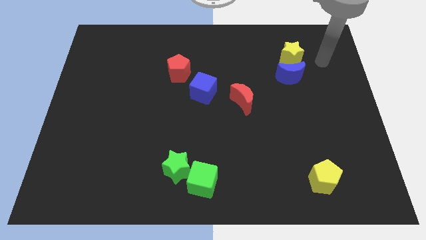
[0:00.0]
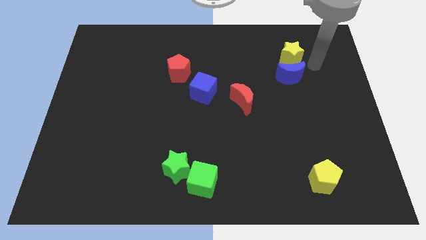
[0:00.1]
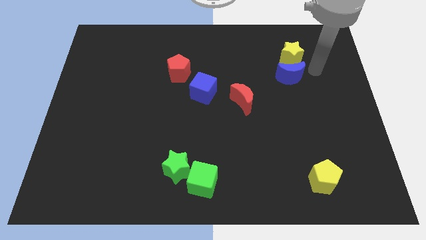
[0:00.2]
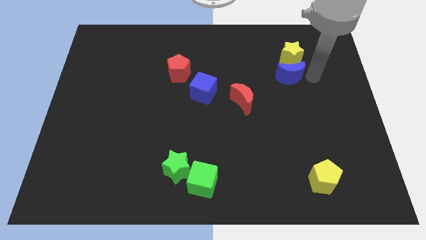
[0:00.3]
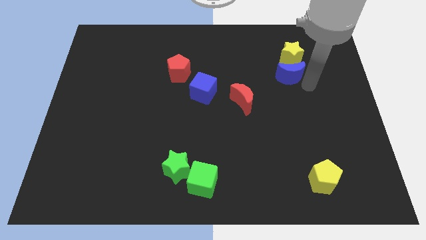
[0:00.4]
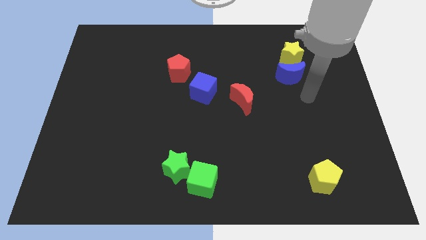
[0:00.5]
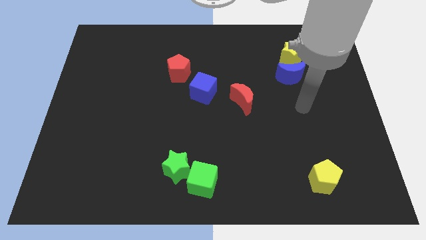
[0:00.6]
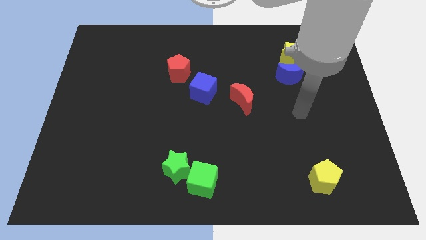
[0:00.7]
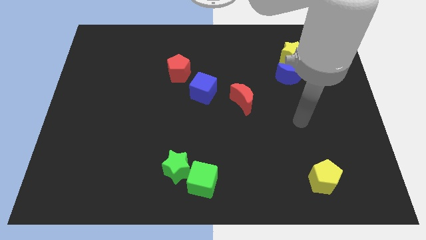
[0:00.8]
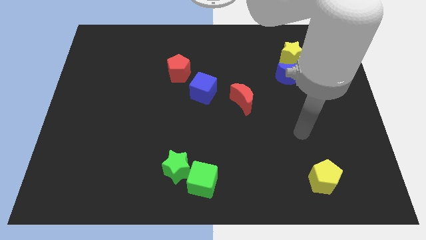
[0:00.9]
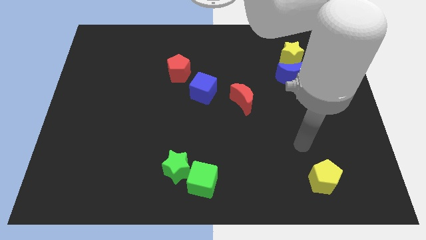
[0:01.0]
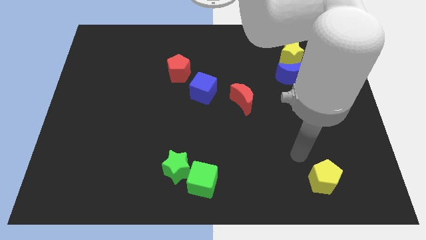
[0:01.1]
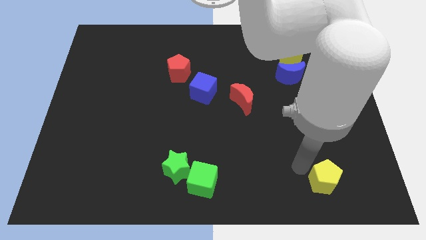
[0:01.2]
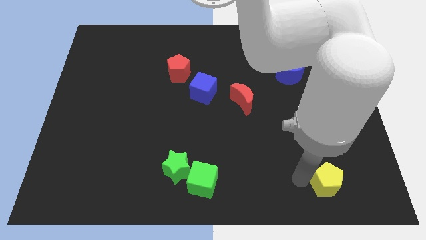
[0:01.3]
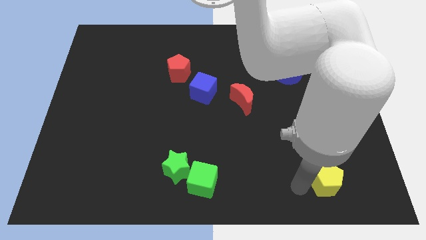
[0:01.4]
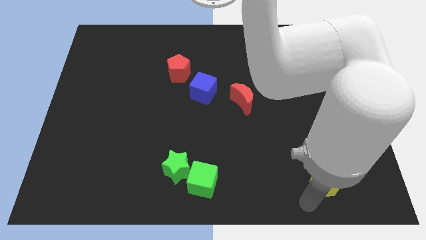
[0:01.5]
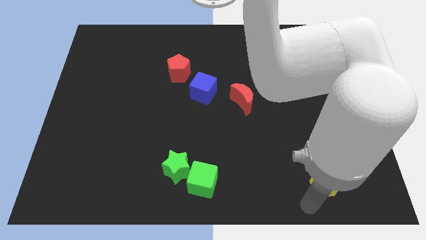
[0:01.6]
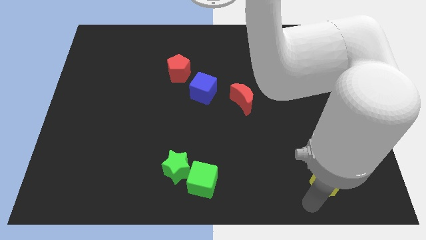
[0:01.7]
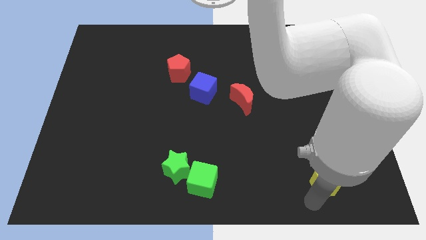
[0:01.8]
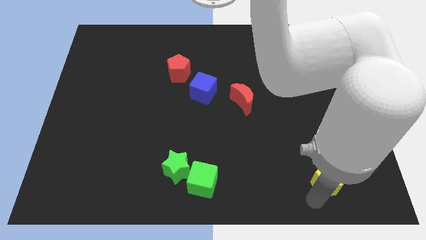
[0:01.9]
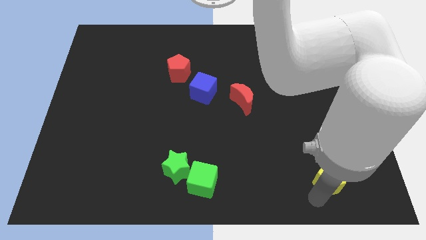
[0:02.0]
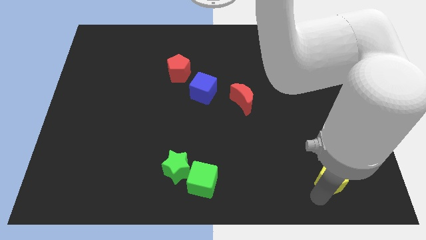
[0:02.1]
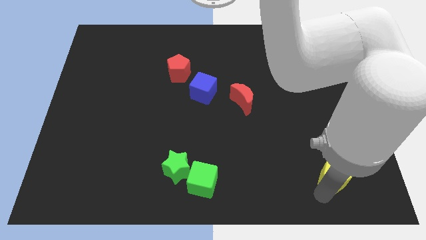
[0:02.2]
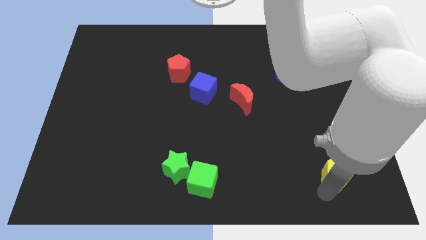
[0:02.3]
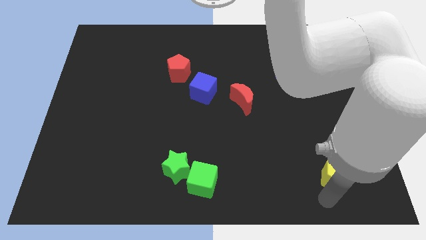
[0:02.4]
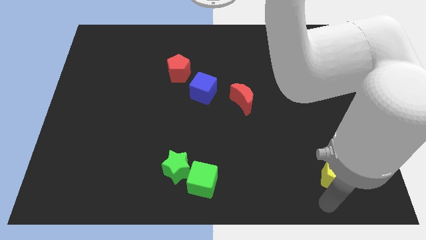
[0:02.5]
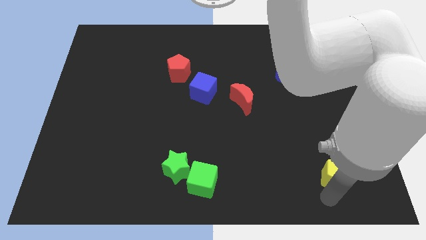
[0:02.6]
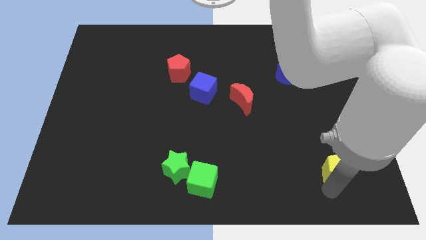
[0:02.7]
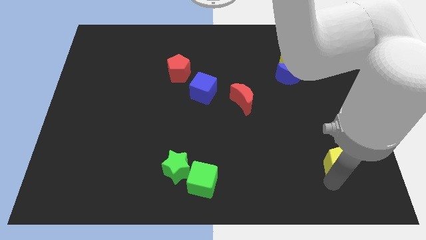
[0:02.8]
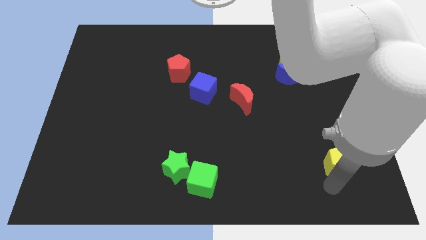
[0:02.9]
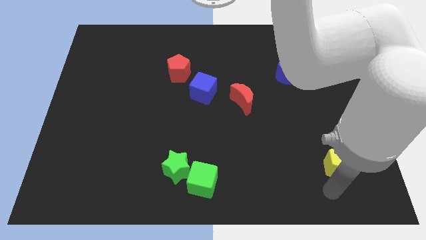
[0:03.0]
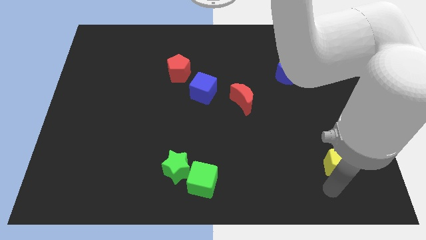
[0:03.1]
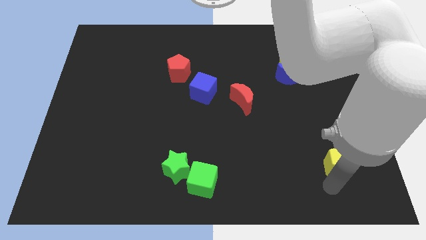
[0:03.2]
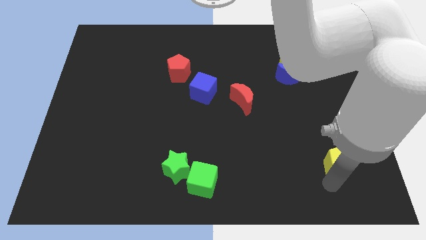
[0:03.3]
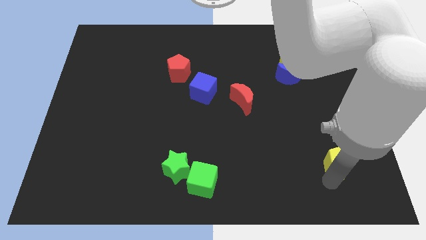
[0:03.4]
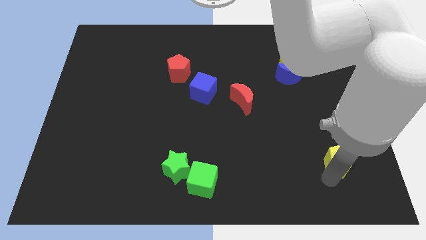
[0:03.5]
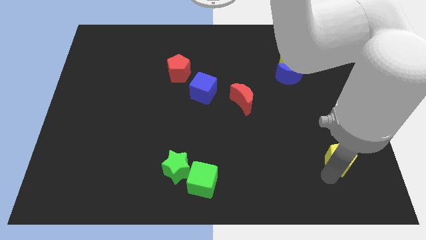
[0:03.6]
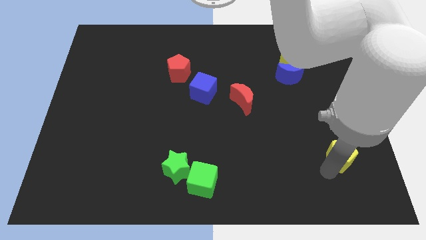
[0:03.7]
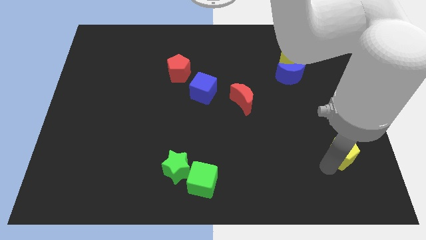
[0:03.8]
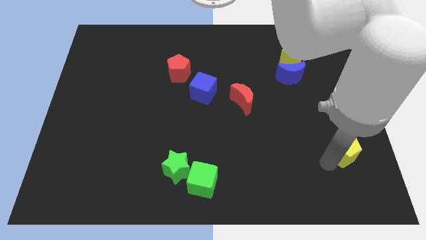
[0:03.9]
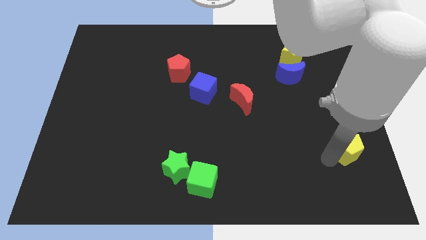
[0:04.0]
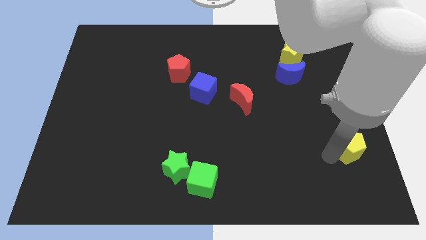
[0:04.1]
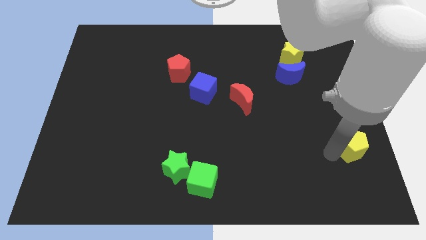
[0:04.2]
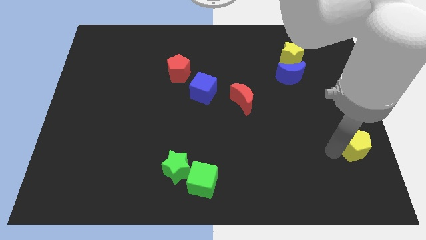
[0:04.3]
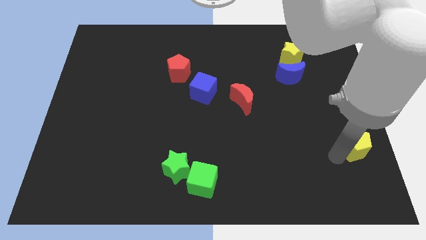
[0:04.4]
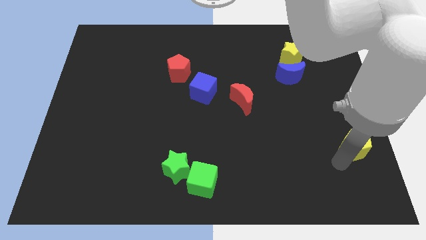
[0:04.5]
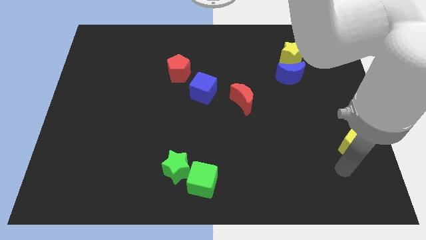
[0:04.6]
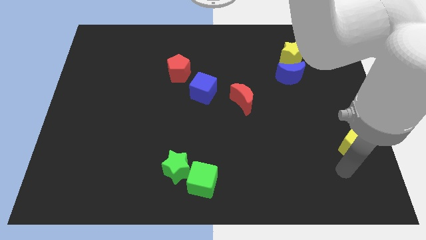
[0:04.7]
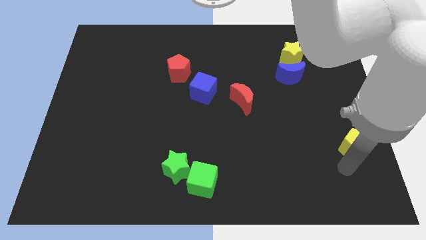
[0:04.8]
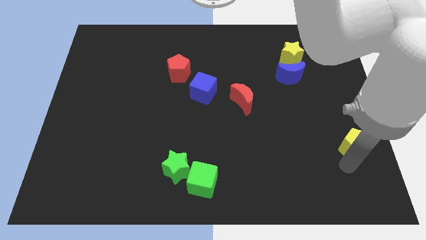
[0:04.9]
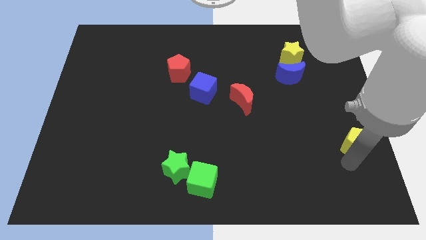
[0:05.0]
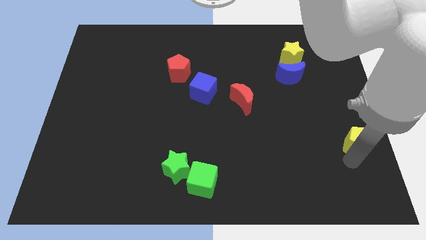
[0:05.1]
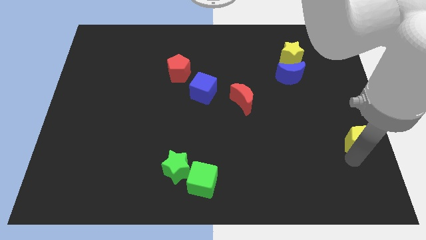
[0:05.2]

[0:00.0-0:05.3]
push the yellow pentagon to the right side of the board

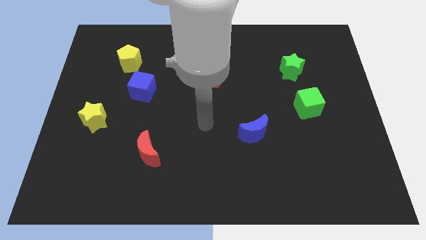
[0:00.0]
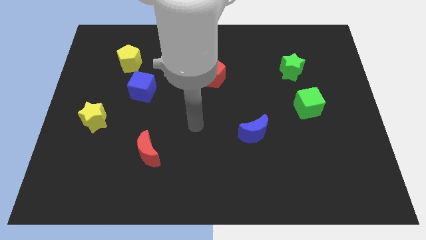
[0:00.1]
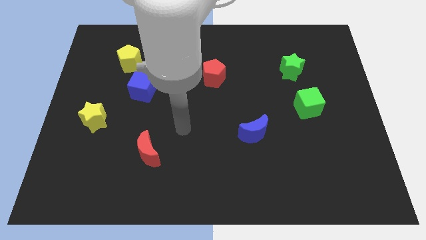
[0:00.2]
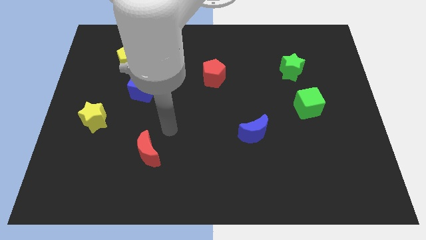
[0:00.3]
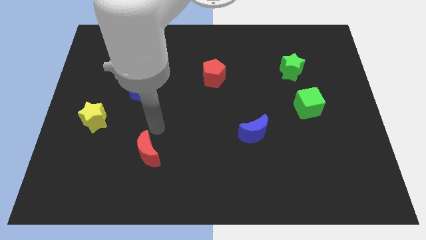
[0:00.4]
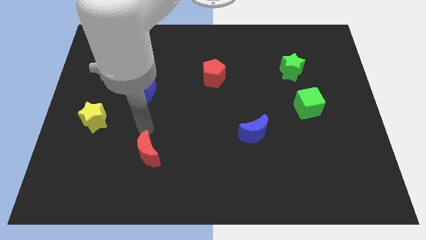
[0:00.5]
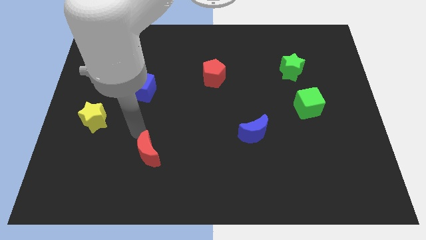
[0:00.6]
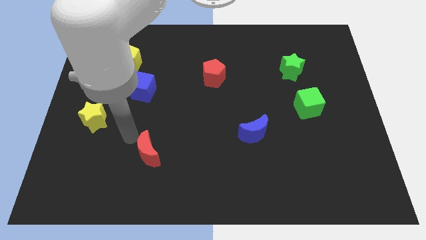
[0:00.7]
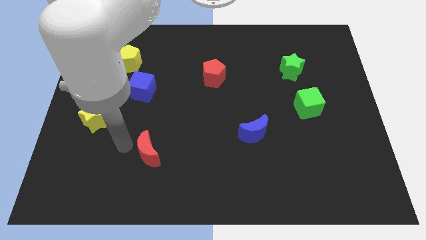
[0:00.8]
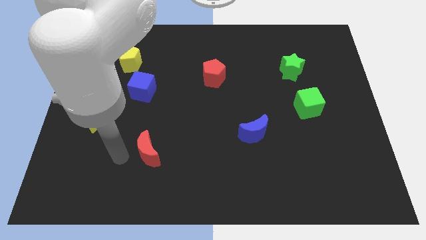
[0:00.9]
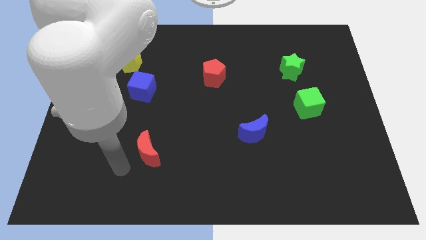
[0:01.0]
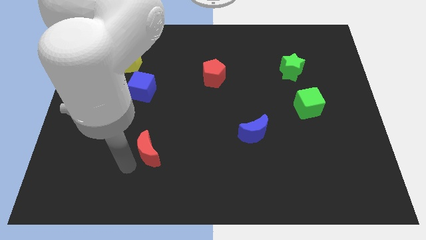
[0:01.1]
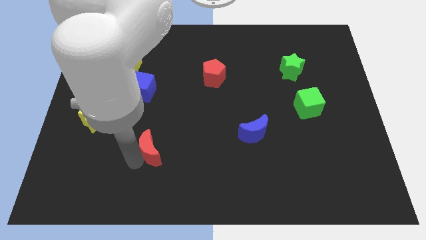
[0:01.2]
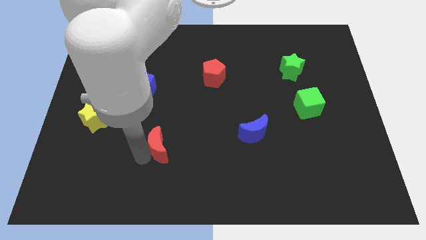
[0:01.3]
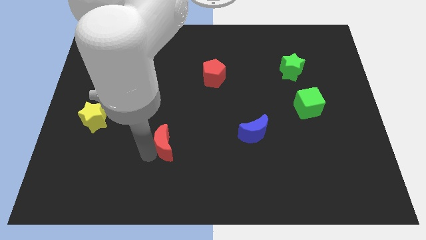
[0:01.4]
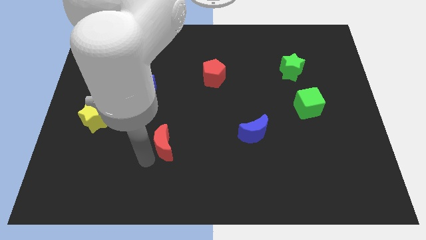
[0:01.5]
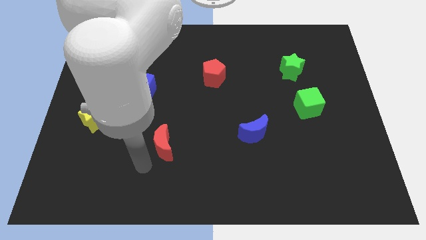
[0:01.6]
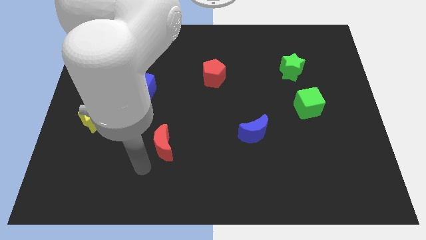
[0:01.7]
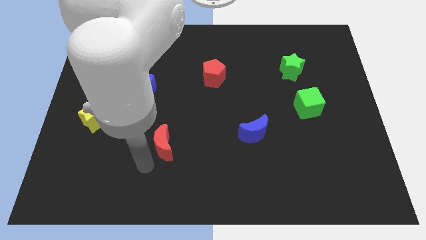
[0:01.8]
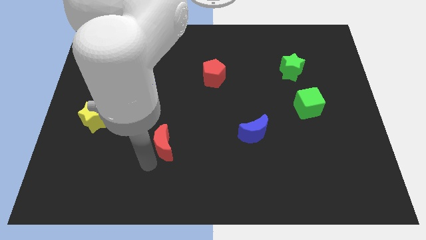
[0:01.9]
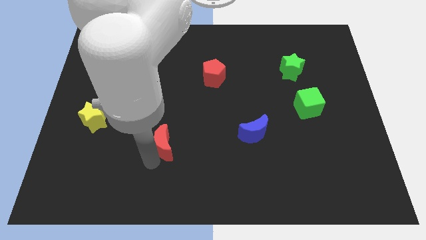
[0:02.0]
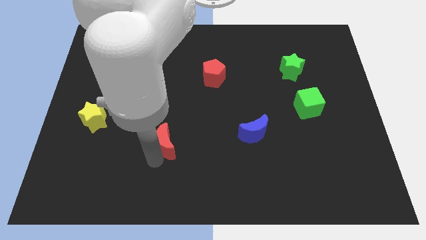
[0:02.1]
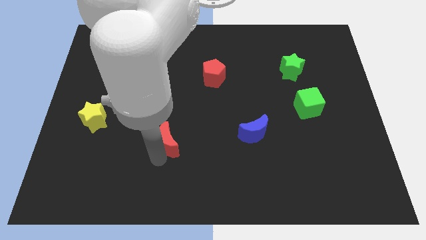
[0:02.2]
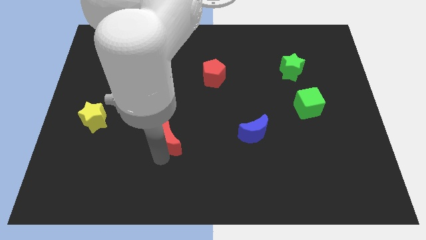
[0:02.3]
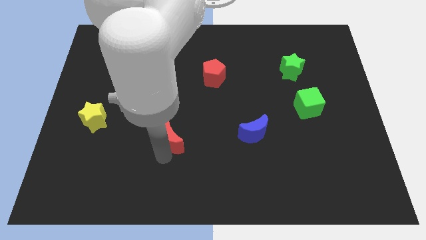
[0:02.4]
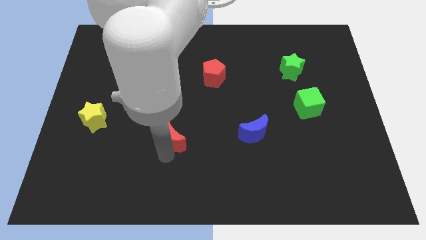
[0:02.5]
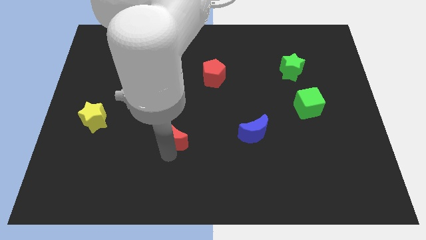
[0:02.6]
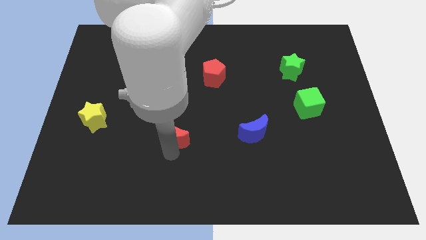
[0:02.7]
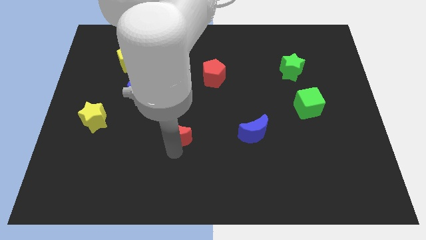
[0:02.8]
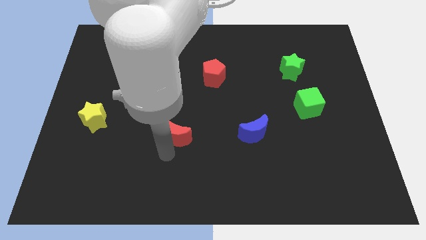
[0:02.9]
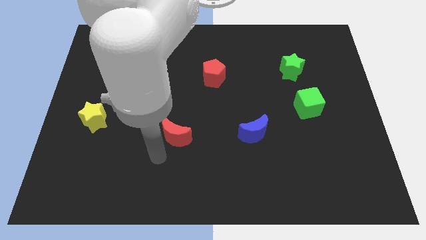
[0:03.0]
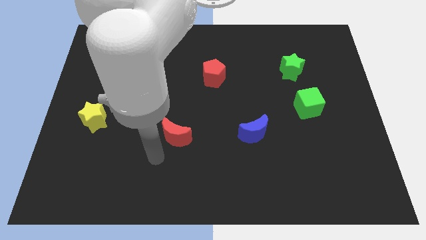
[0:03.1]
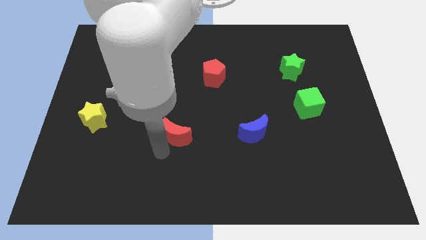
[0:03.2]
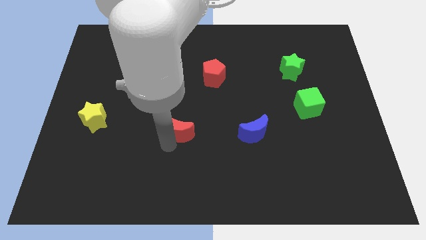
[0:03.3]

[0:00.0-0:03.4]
put the red moon to the middle
